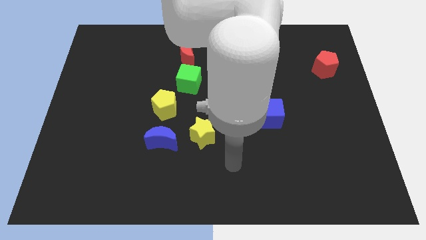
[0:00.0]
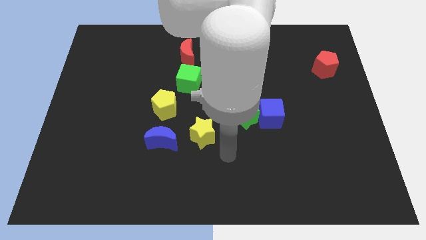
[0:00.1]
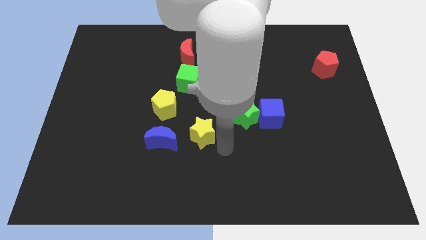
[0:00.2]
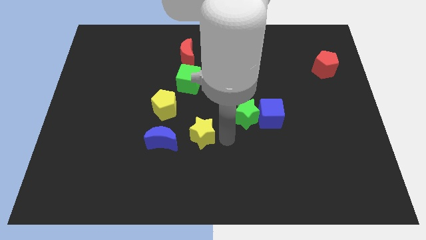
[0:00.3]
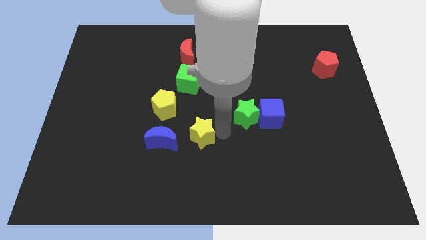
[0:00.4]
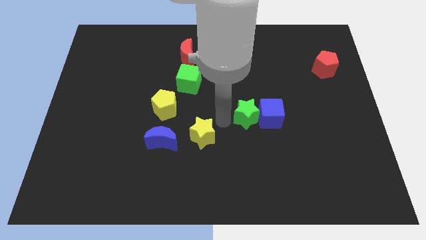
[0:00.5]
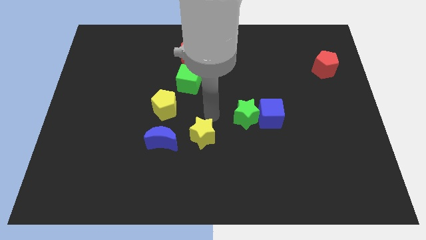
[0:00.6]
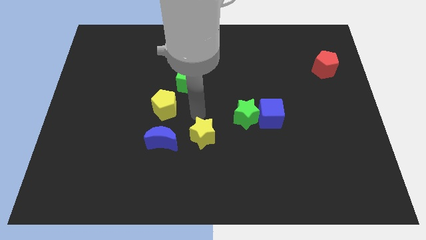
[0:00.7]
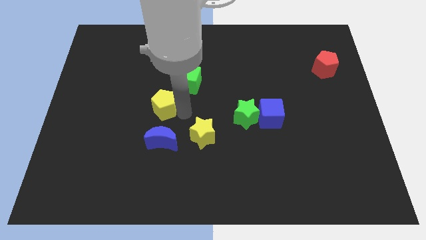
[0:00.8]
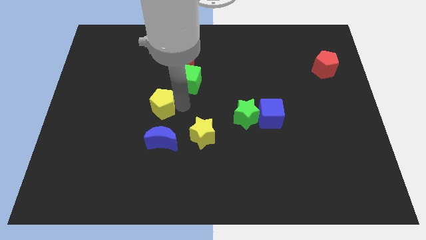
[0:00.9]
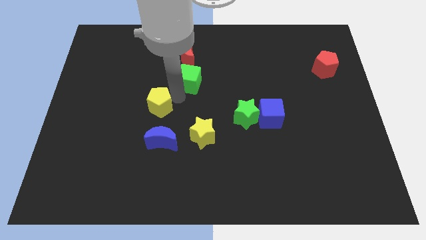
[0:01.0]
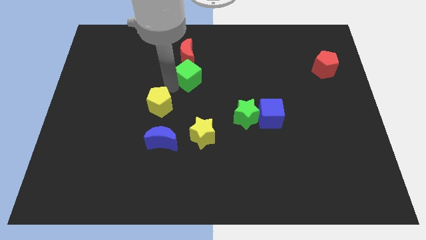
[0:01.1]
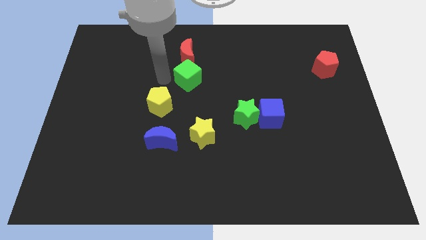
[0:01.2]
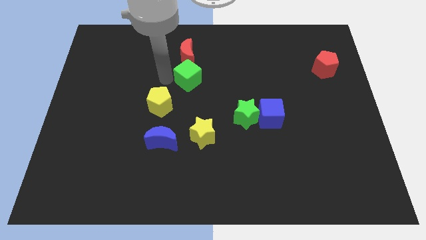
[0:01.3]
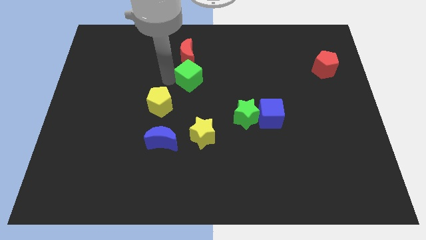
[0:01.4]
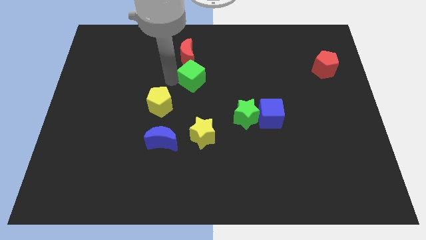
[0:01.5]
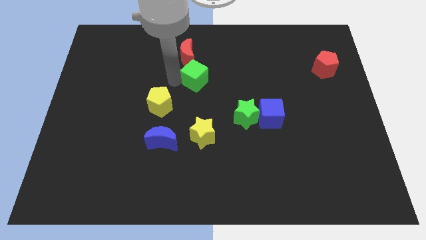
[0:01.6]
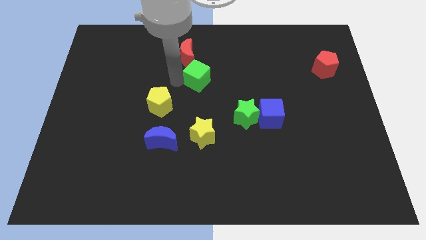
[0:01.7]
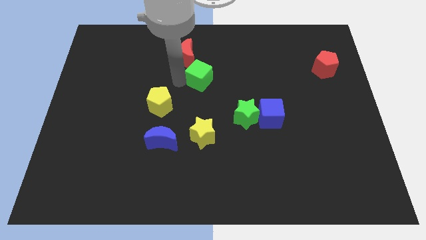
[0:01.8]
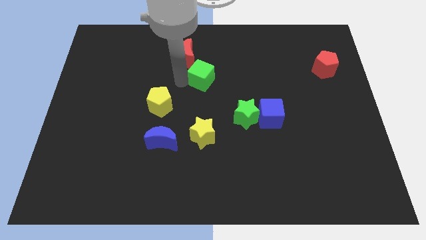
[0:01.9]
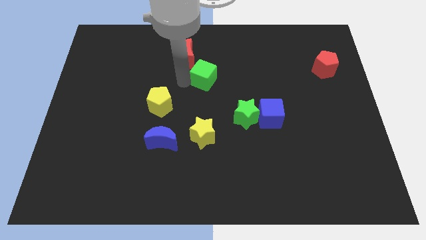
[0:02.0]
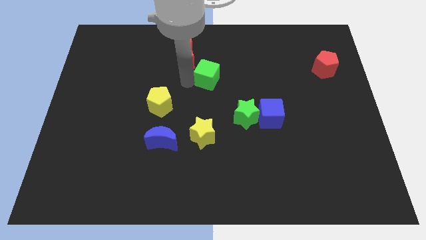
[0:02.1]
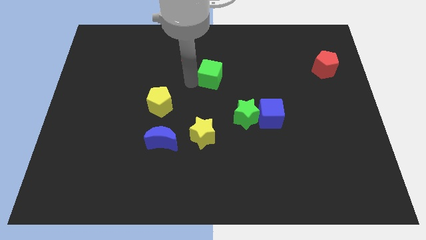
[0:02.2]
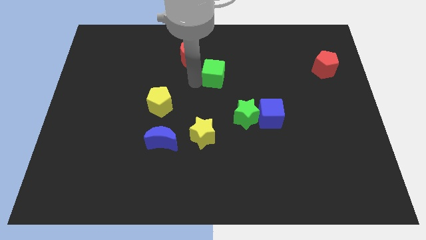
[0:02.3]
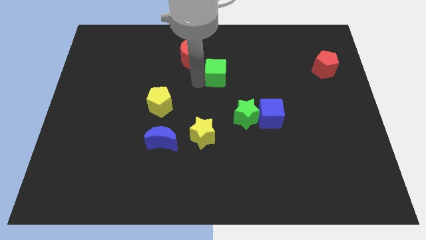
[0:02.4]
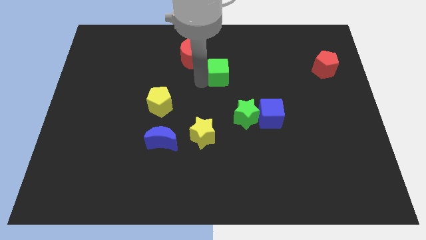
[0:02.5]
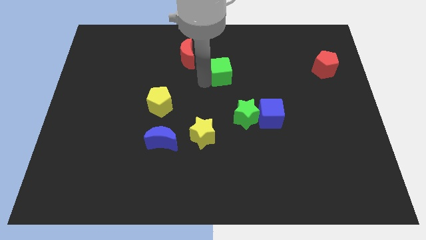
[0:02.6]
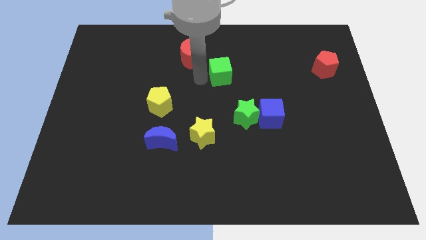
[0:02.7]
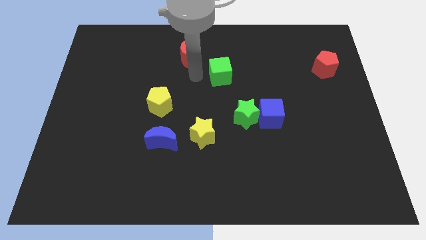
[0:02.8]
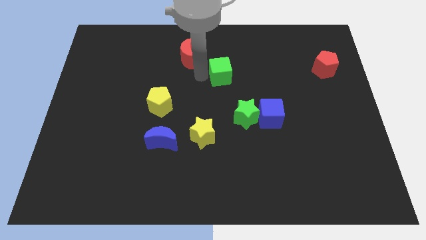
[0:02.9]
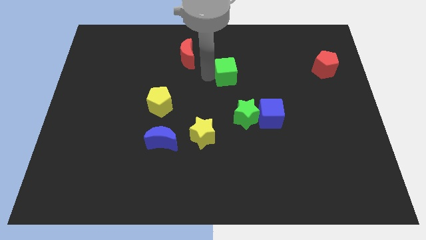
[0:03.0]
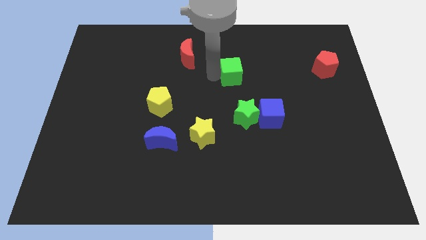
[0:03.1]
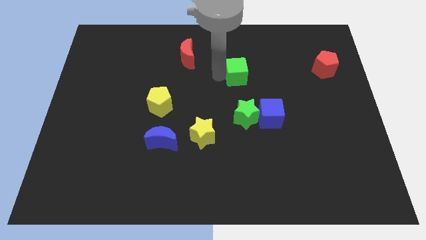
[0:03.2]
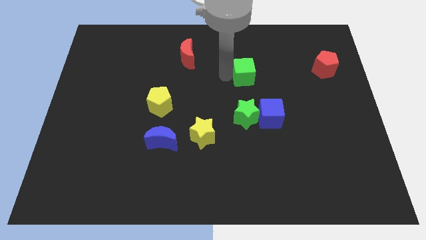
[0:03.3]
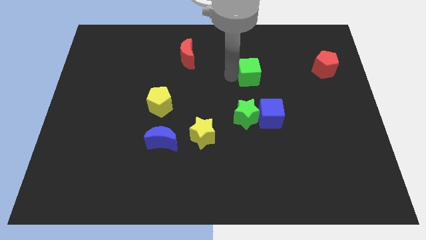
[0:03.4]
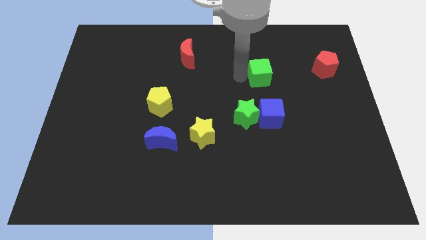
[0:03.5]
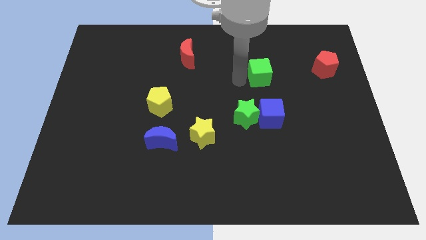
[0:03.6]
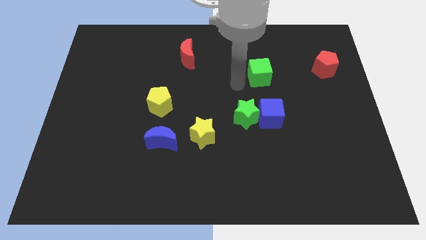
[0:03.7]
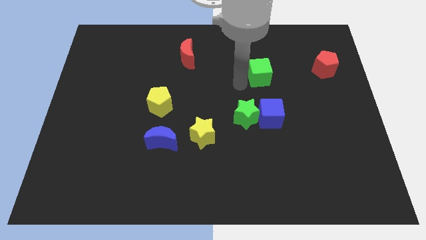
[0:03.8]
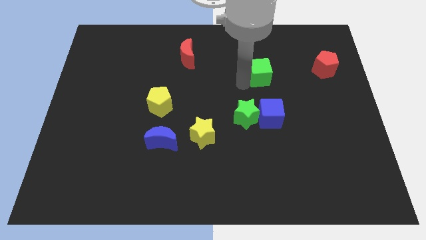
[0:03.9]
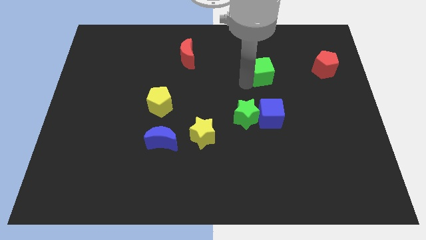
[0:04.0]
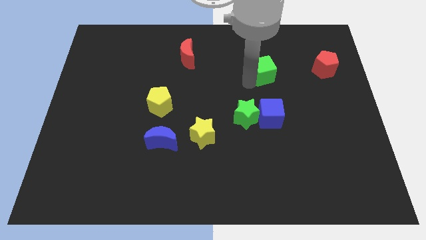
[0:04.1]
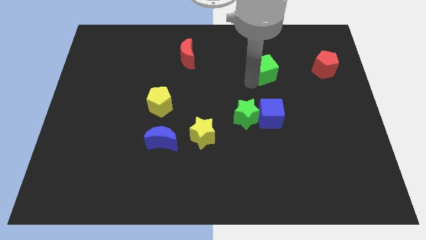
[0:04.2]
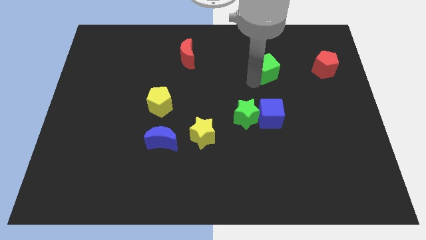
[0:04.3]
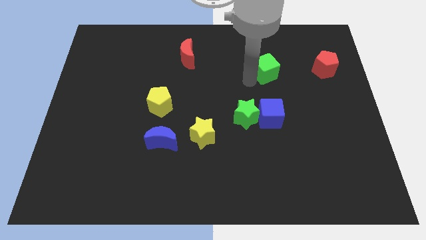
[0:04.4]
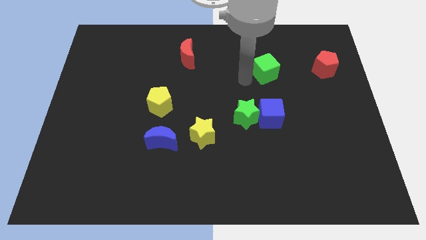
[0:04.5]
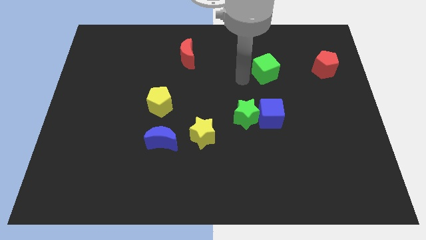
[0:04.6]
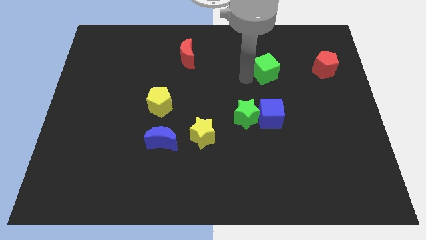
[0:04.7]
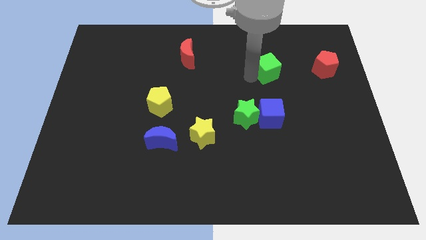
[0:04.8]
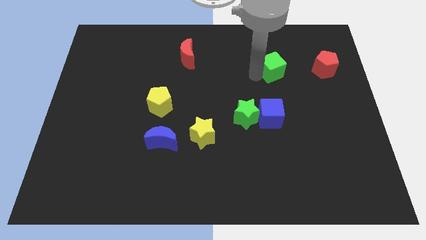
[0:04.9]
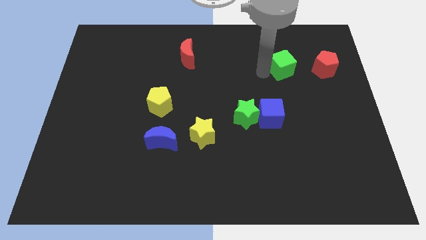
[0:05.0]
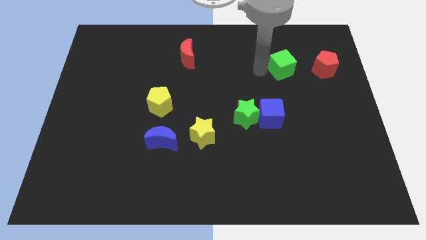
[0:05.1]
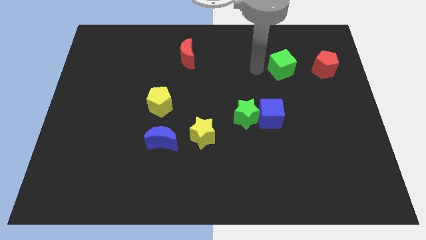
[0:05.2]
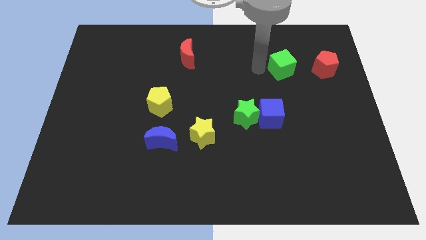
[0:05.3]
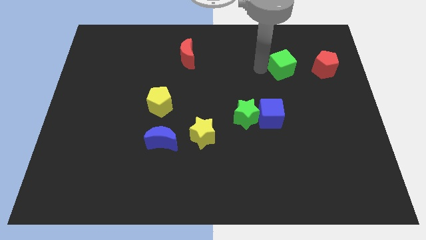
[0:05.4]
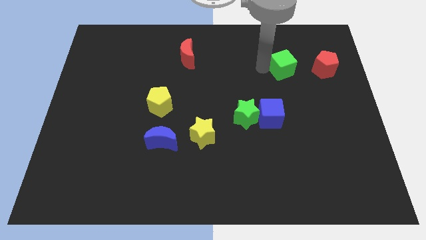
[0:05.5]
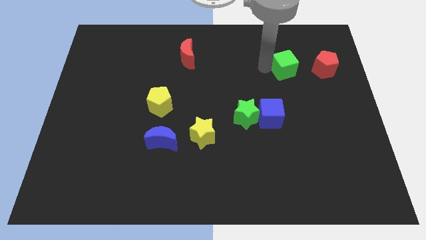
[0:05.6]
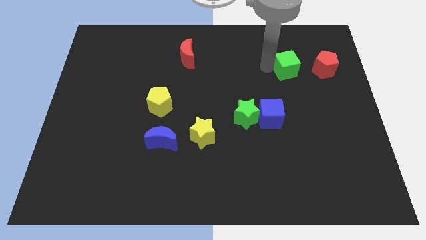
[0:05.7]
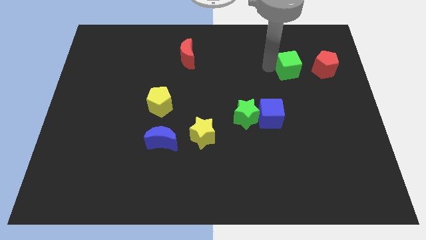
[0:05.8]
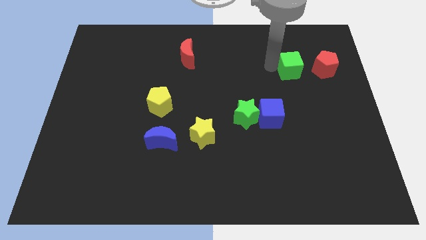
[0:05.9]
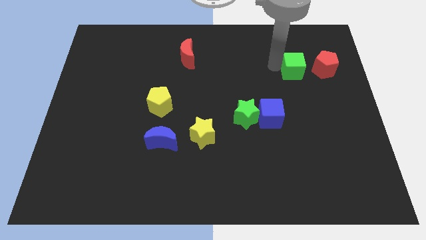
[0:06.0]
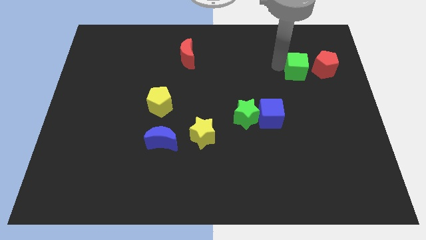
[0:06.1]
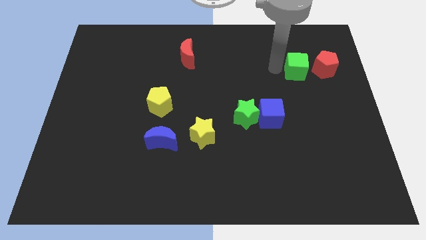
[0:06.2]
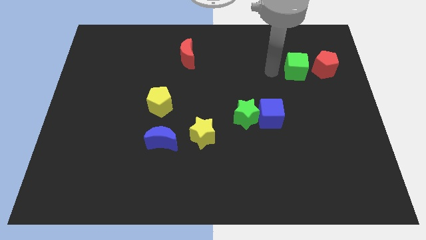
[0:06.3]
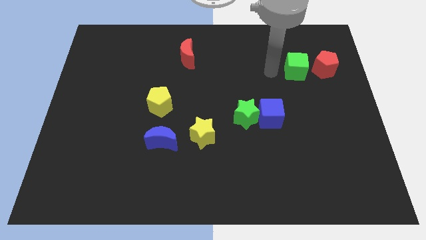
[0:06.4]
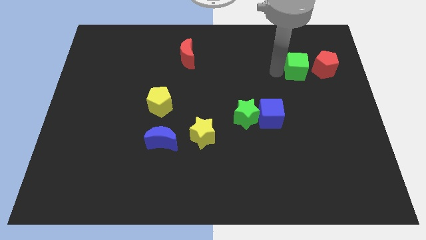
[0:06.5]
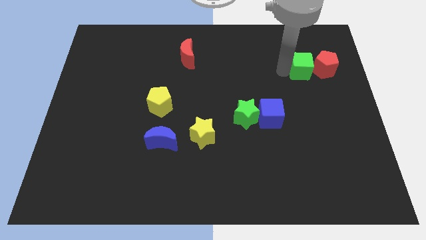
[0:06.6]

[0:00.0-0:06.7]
push the green cube towards the red pentagon

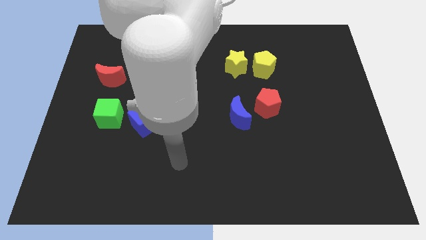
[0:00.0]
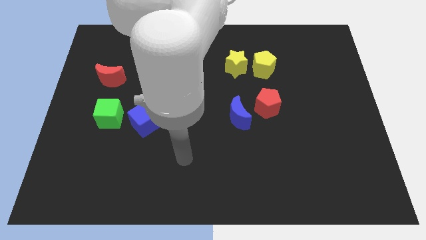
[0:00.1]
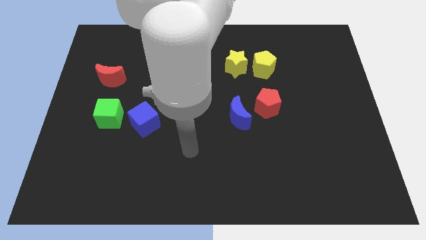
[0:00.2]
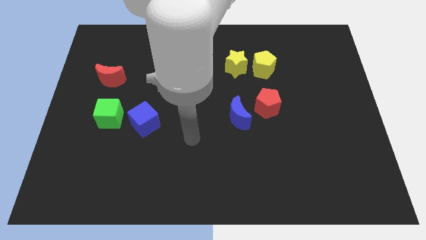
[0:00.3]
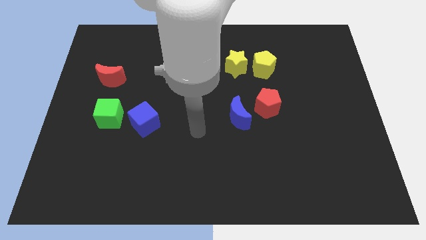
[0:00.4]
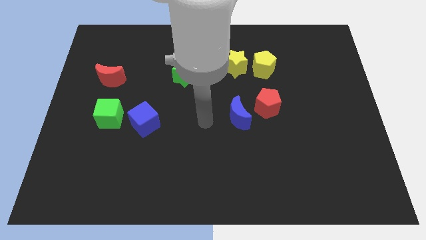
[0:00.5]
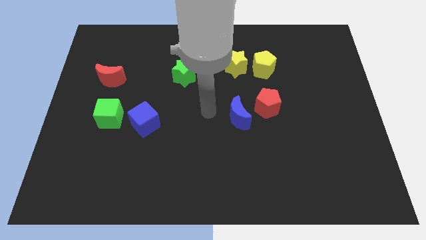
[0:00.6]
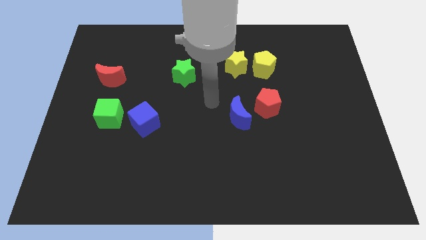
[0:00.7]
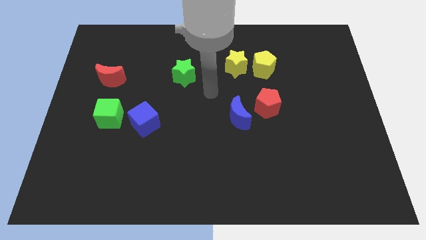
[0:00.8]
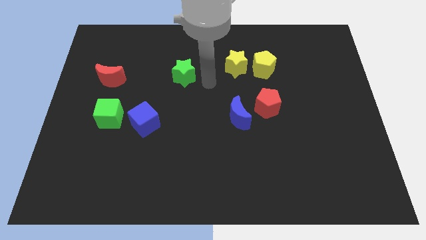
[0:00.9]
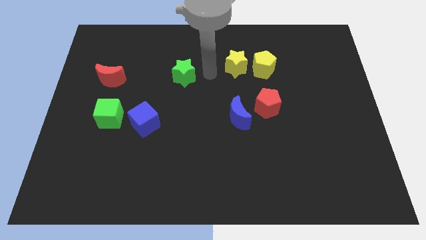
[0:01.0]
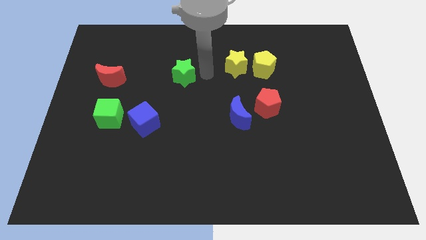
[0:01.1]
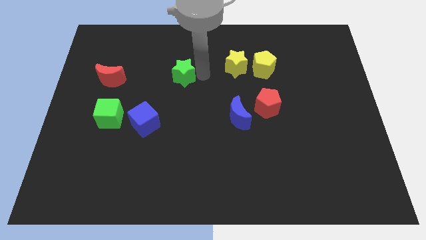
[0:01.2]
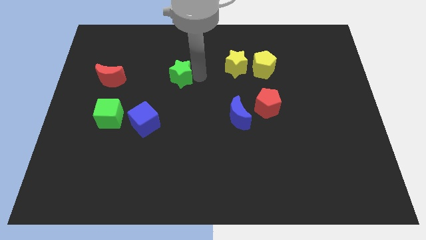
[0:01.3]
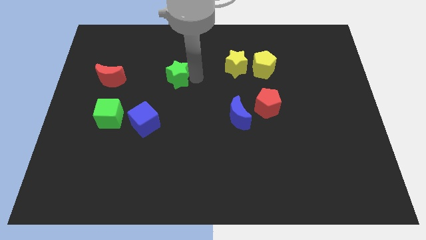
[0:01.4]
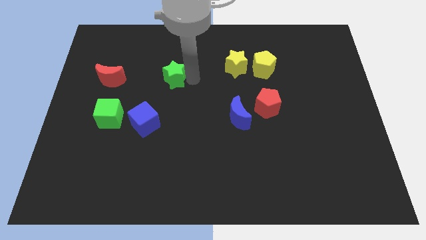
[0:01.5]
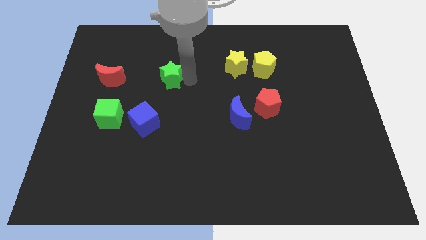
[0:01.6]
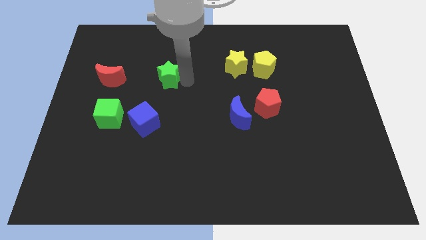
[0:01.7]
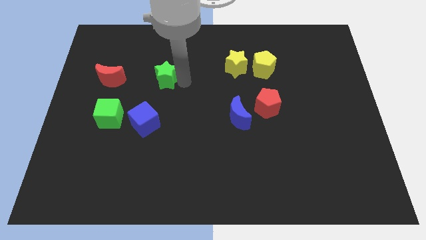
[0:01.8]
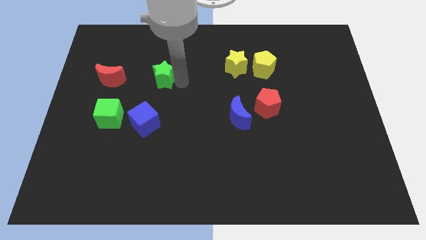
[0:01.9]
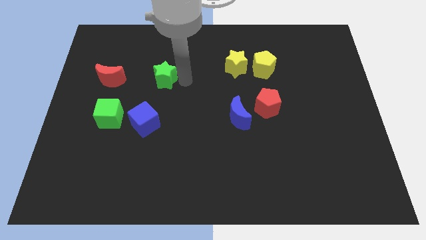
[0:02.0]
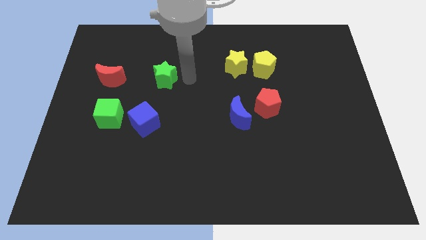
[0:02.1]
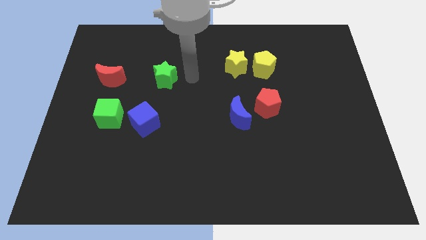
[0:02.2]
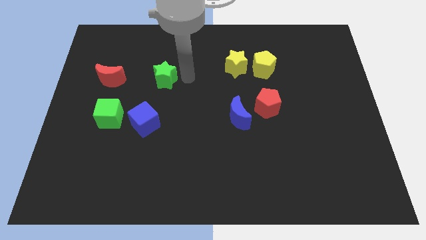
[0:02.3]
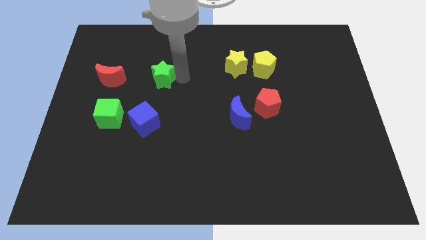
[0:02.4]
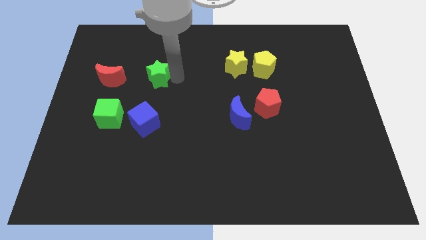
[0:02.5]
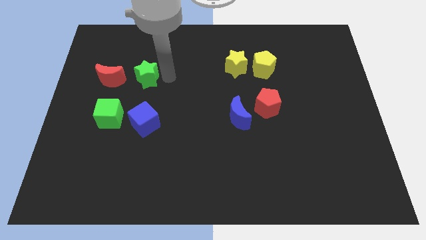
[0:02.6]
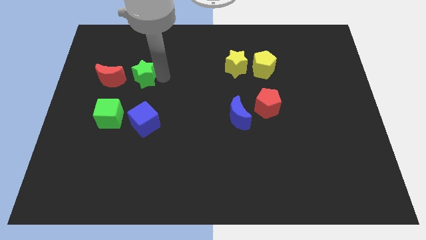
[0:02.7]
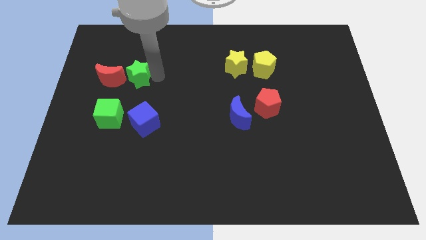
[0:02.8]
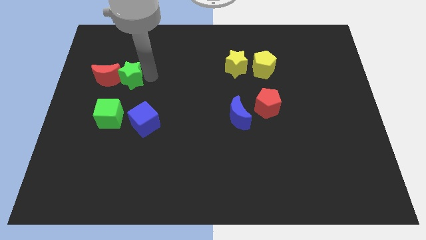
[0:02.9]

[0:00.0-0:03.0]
push the green star to the red moon
